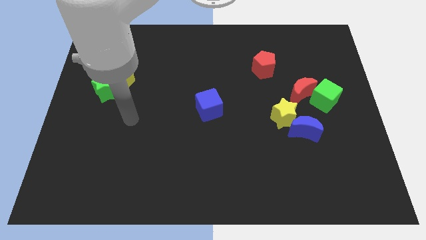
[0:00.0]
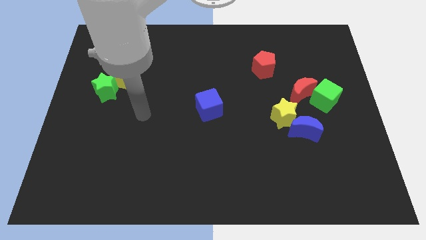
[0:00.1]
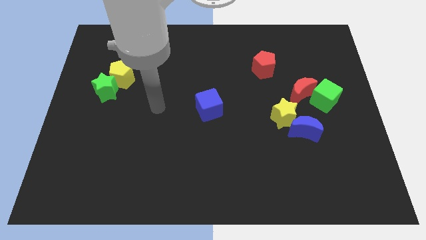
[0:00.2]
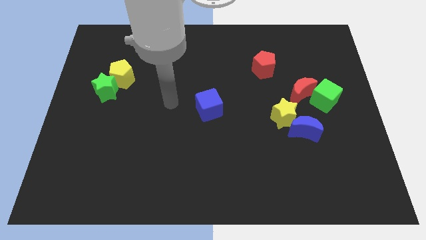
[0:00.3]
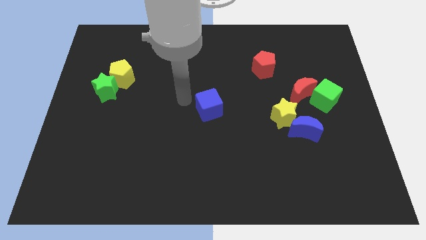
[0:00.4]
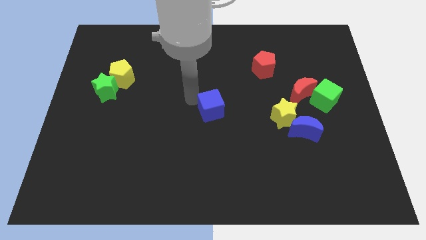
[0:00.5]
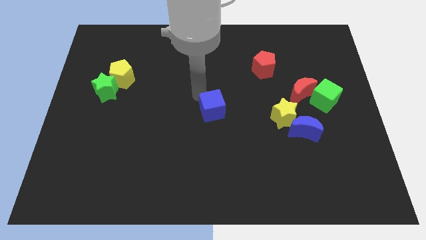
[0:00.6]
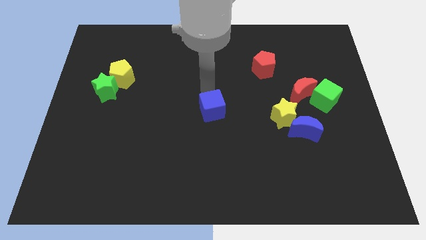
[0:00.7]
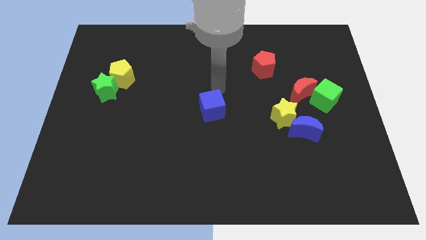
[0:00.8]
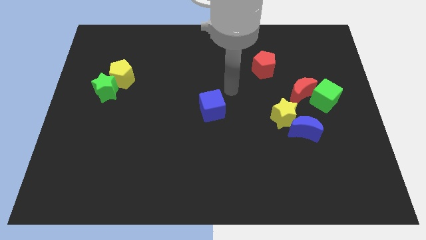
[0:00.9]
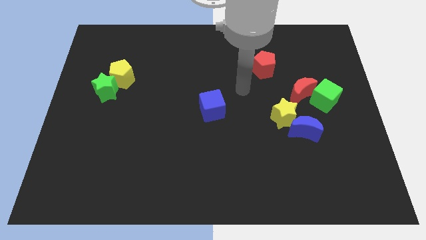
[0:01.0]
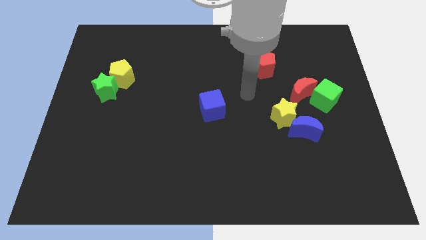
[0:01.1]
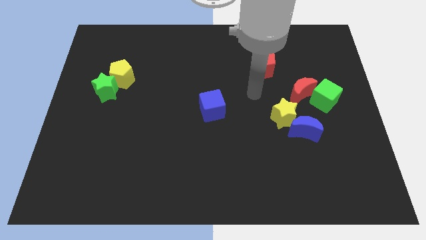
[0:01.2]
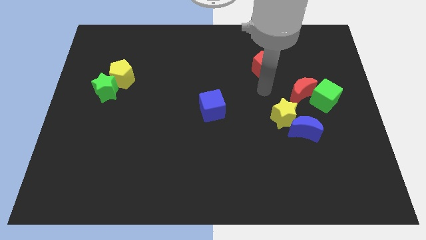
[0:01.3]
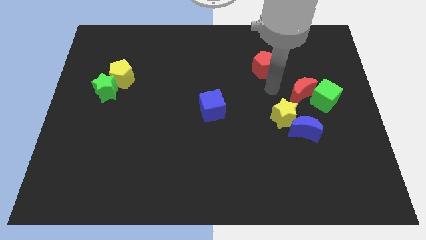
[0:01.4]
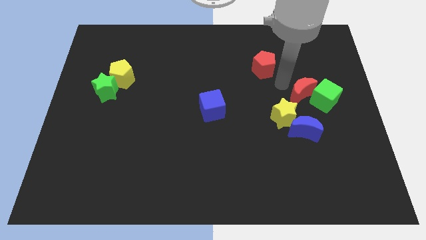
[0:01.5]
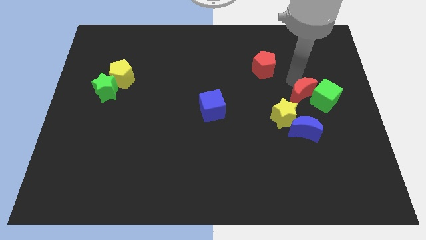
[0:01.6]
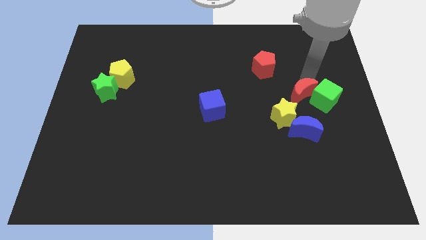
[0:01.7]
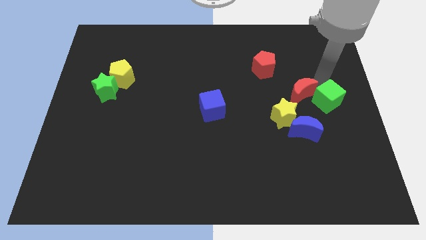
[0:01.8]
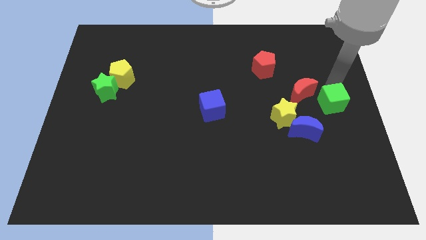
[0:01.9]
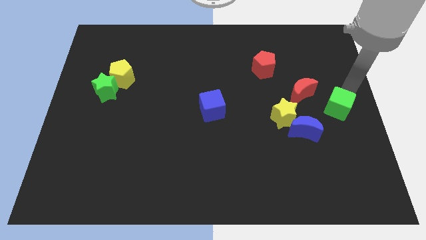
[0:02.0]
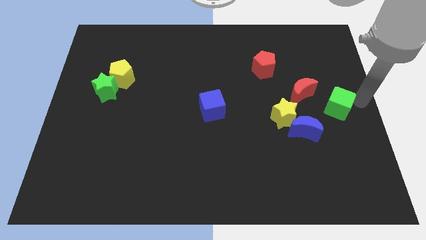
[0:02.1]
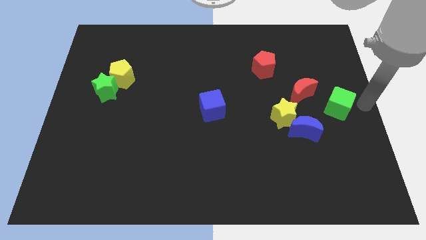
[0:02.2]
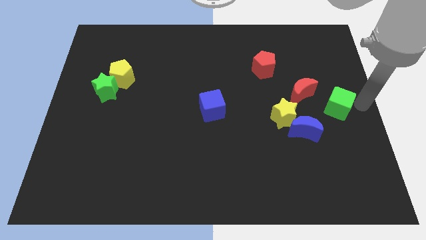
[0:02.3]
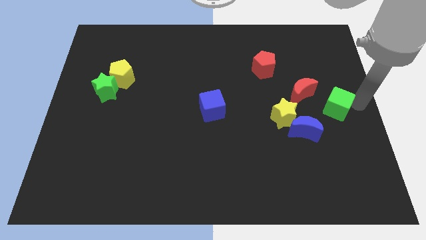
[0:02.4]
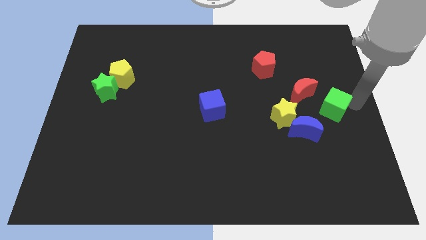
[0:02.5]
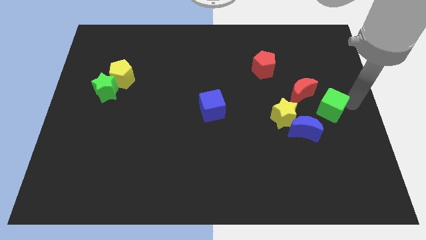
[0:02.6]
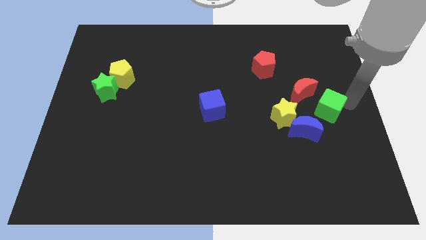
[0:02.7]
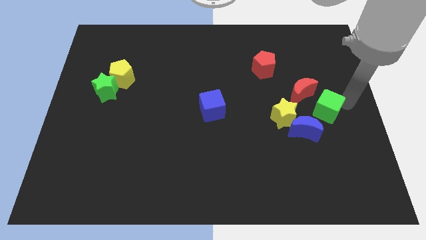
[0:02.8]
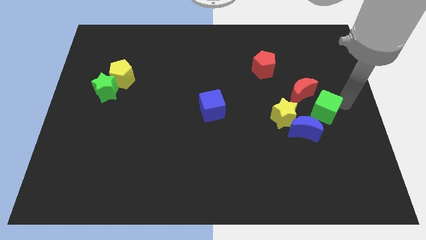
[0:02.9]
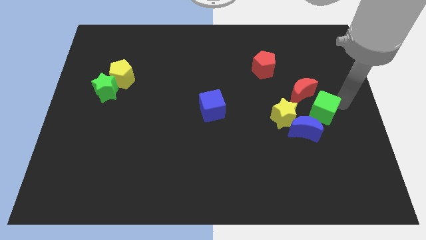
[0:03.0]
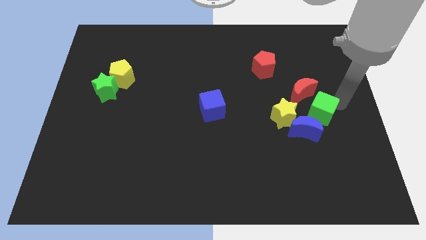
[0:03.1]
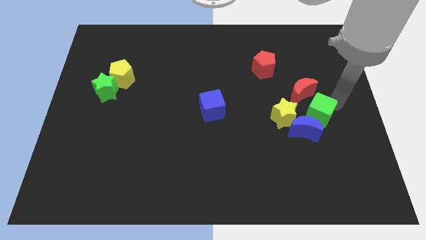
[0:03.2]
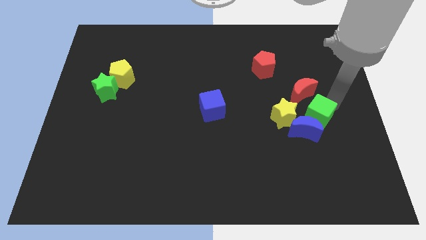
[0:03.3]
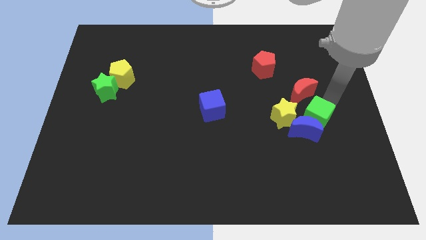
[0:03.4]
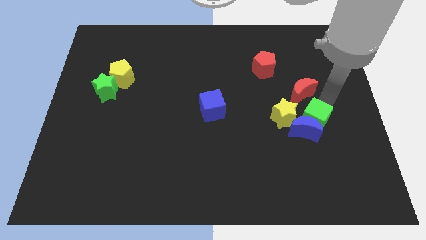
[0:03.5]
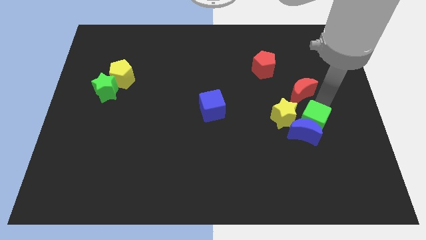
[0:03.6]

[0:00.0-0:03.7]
slide the green cube slightly down and left

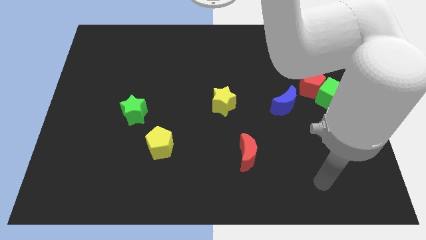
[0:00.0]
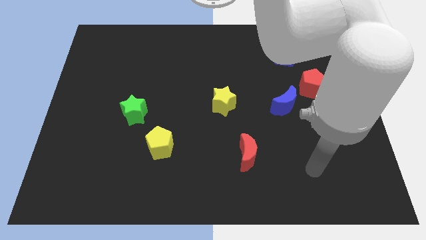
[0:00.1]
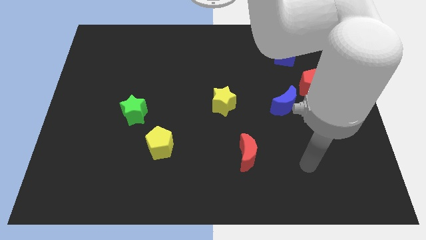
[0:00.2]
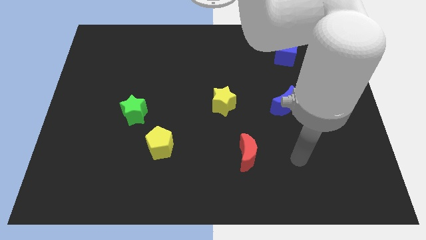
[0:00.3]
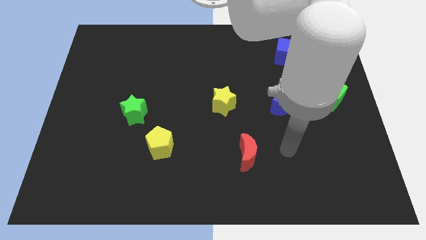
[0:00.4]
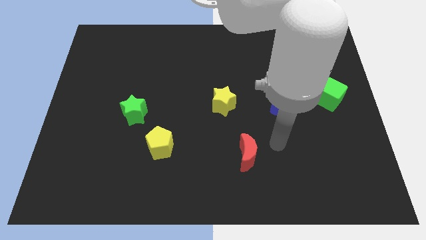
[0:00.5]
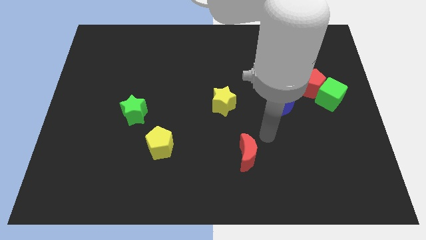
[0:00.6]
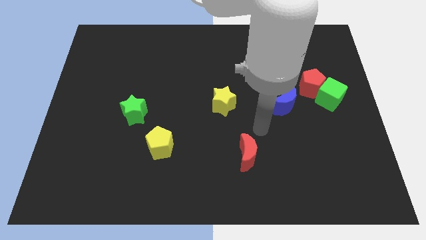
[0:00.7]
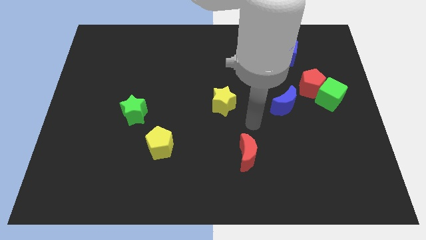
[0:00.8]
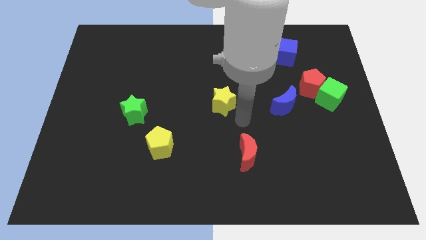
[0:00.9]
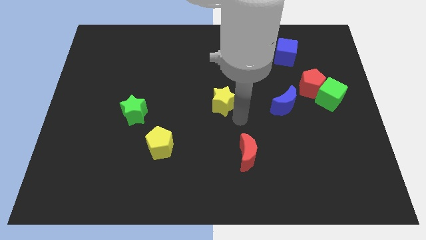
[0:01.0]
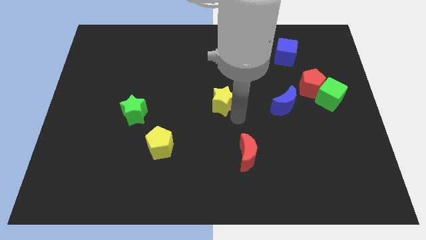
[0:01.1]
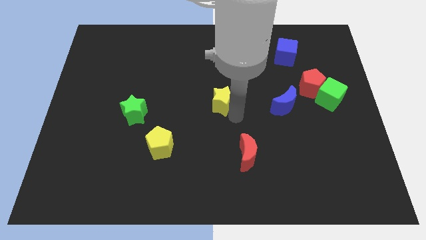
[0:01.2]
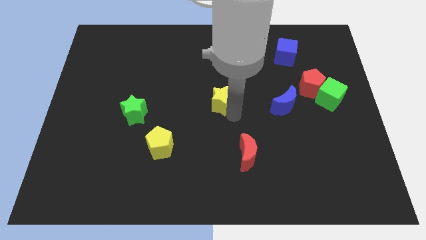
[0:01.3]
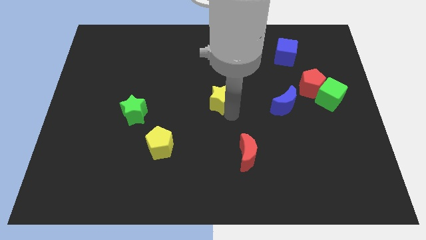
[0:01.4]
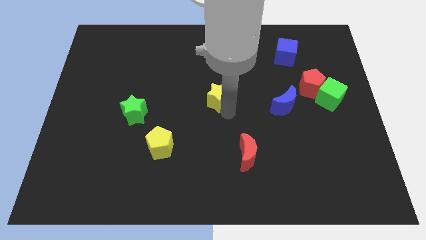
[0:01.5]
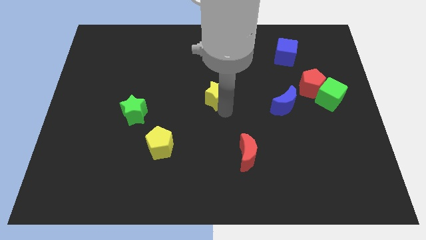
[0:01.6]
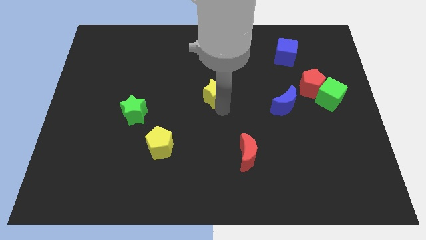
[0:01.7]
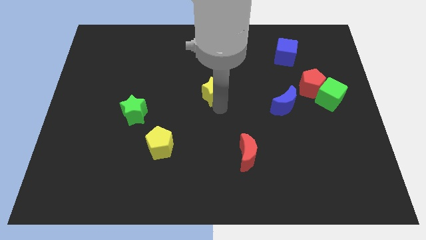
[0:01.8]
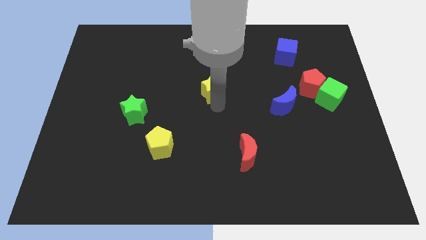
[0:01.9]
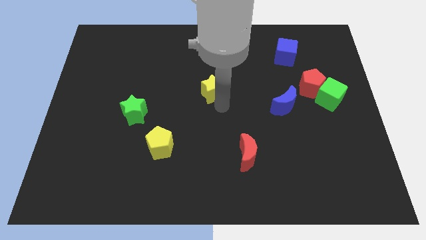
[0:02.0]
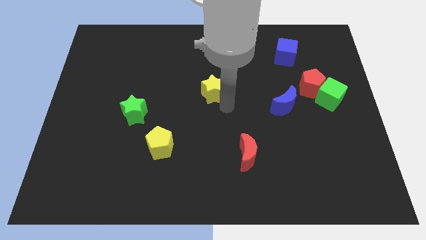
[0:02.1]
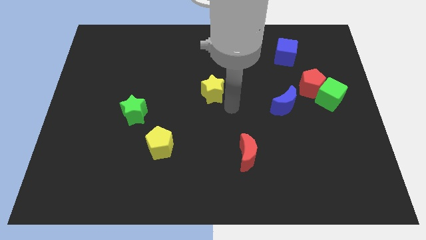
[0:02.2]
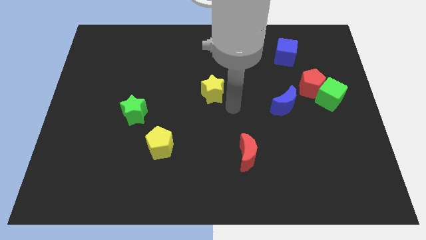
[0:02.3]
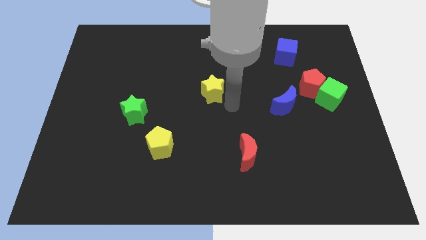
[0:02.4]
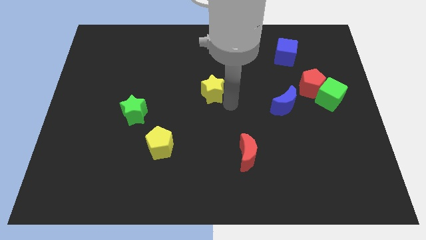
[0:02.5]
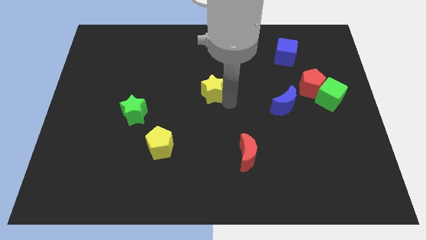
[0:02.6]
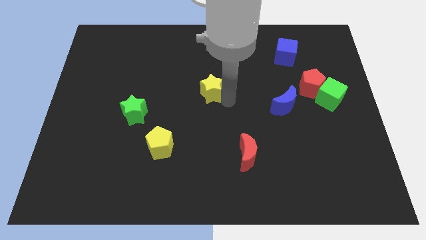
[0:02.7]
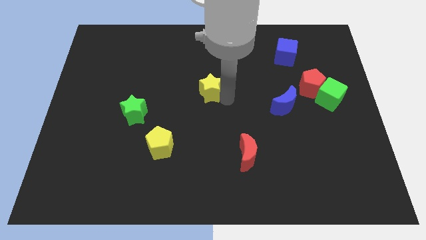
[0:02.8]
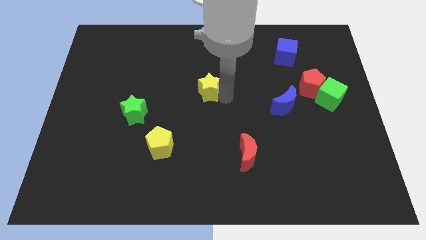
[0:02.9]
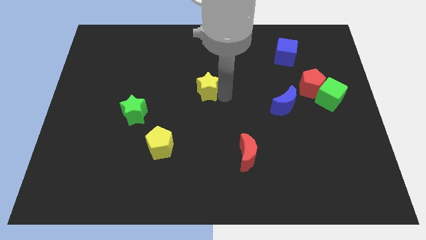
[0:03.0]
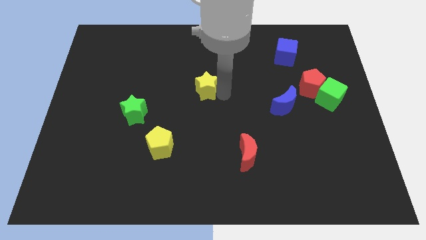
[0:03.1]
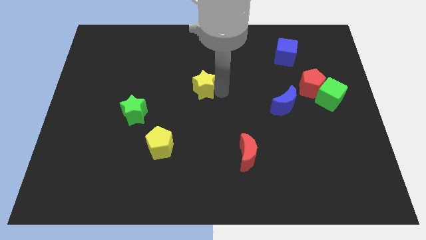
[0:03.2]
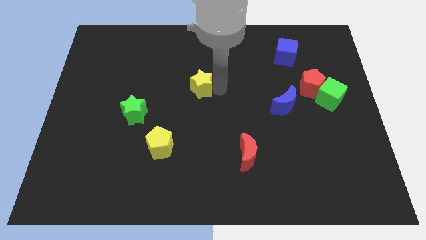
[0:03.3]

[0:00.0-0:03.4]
move the yellow star a bit diagonally up and to the left

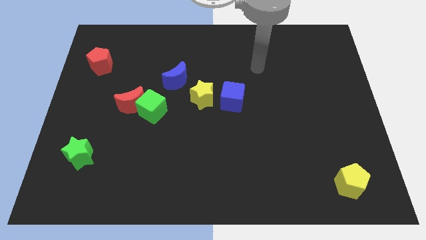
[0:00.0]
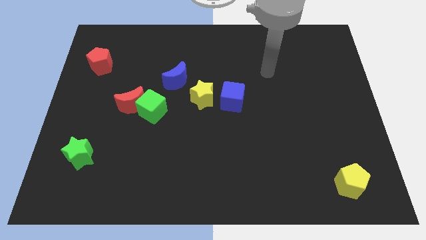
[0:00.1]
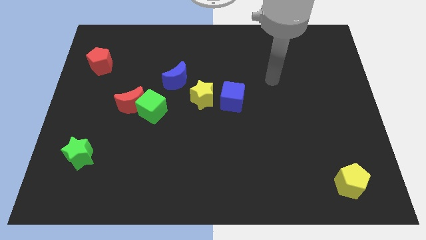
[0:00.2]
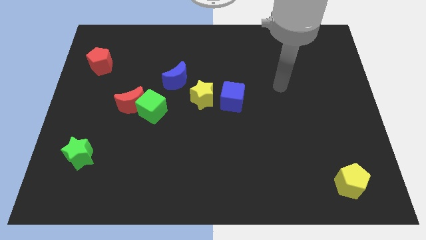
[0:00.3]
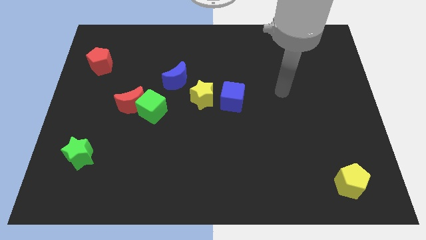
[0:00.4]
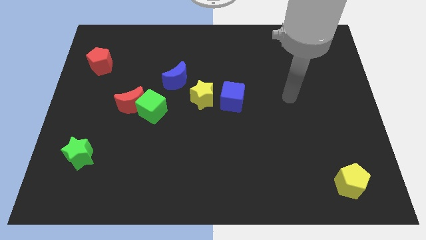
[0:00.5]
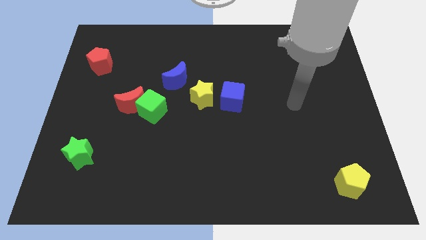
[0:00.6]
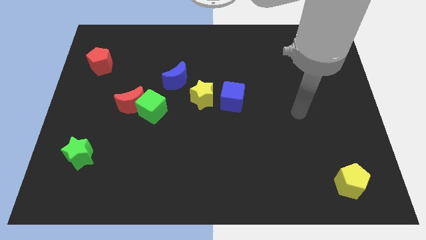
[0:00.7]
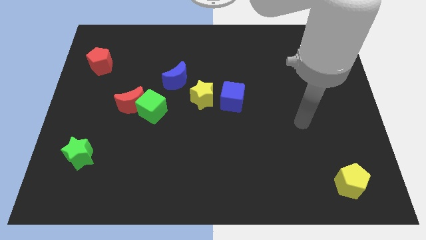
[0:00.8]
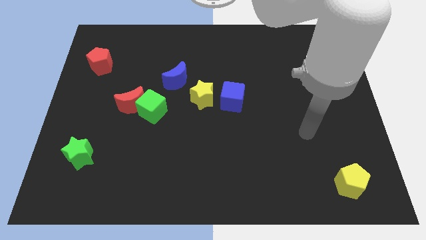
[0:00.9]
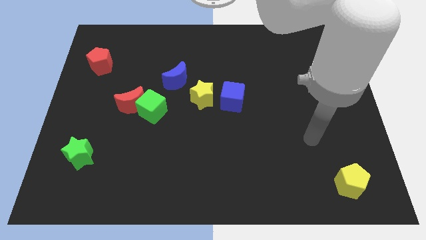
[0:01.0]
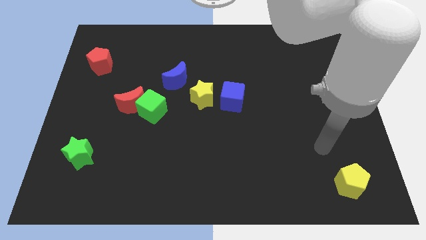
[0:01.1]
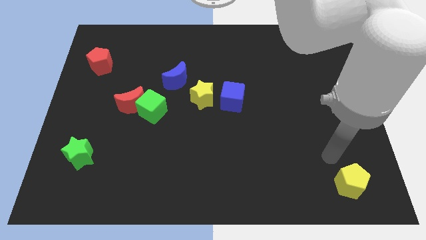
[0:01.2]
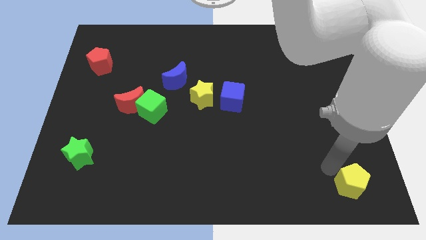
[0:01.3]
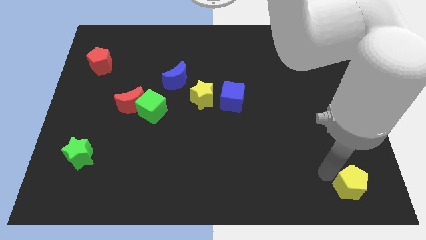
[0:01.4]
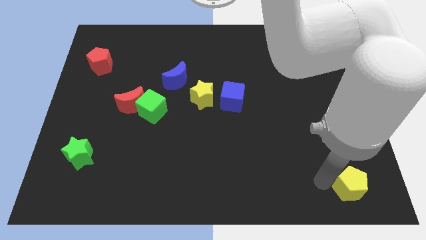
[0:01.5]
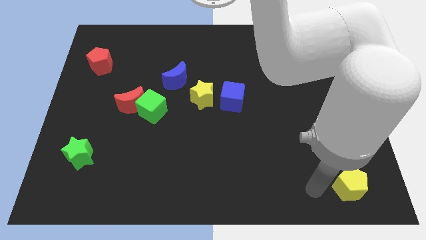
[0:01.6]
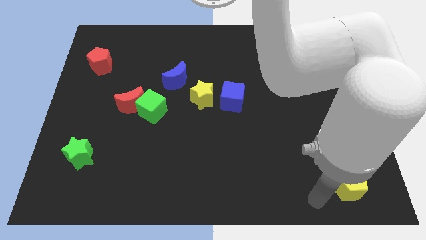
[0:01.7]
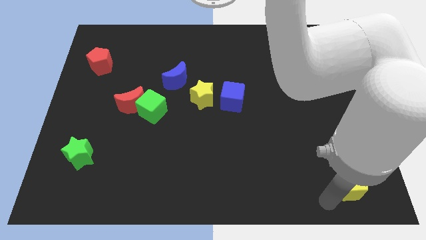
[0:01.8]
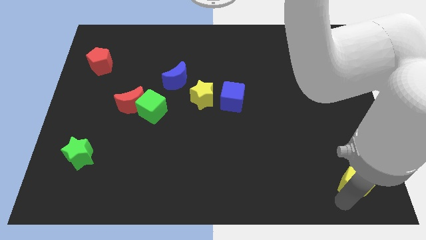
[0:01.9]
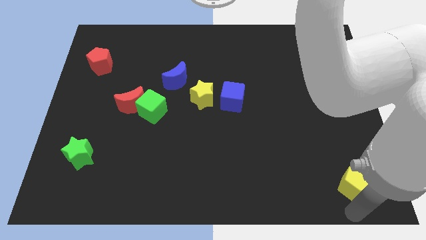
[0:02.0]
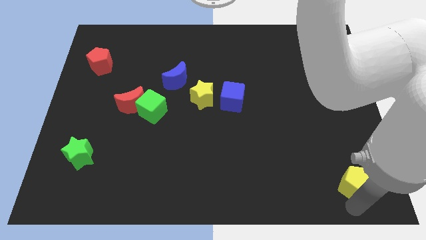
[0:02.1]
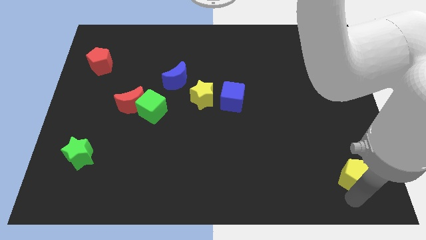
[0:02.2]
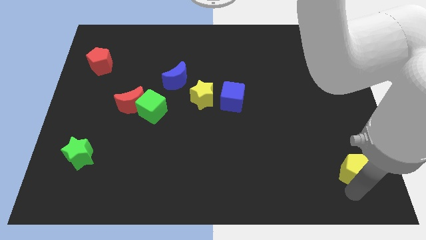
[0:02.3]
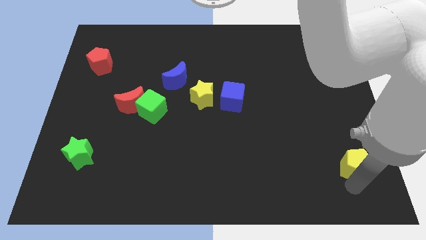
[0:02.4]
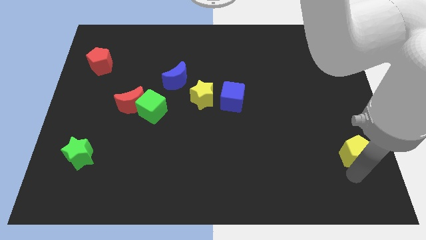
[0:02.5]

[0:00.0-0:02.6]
slightly slide the yellow pentagon upwards
